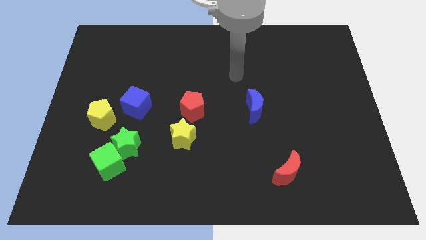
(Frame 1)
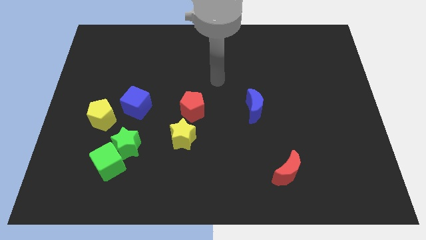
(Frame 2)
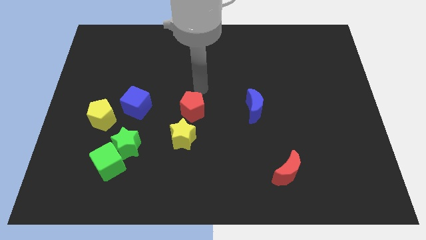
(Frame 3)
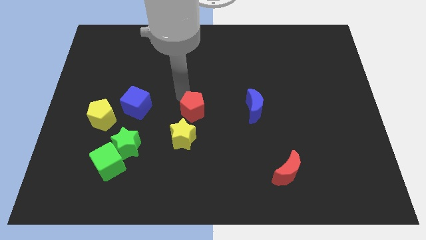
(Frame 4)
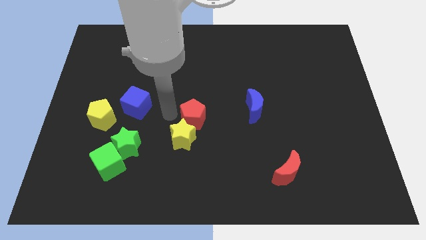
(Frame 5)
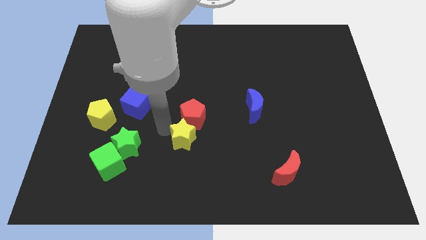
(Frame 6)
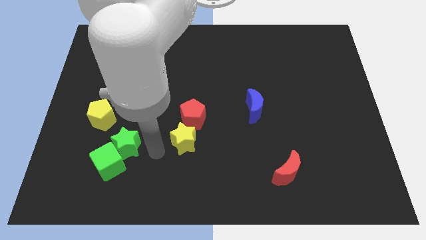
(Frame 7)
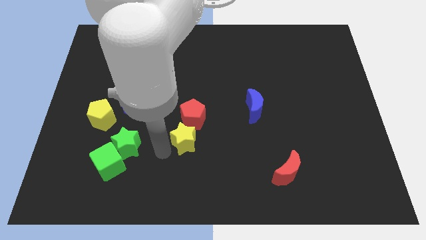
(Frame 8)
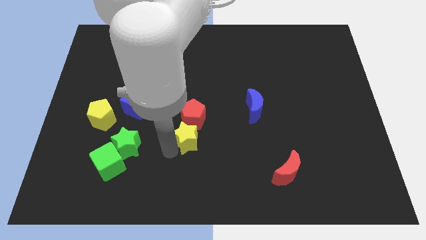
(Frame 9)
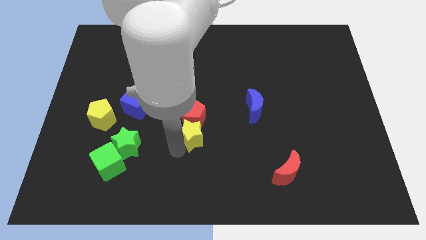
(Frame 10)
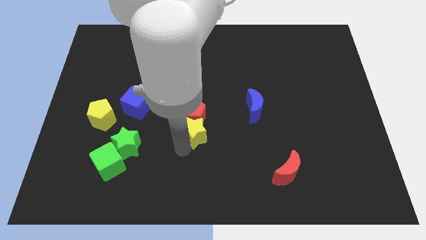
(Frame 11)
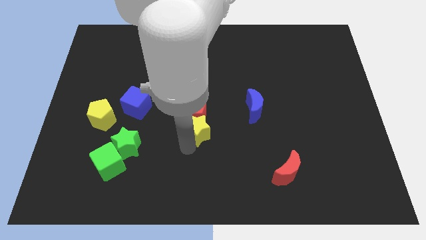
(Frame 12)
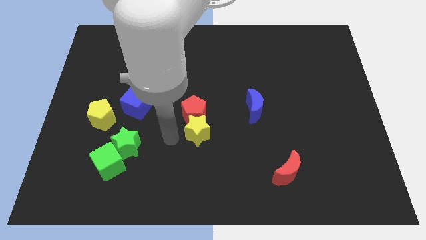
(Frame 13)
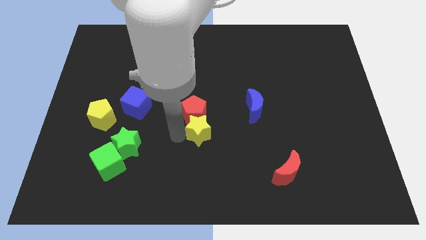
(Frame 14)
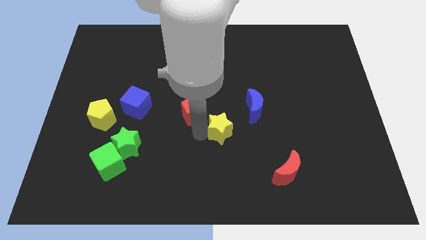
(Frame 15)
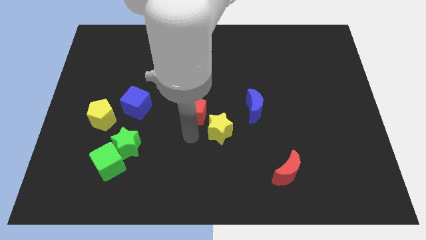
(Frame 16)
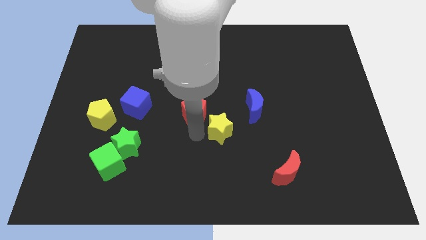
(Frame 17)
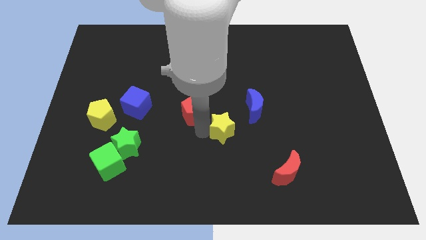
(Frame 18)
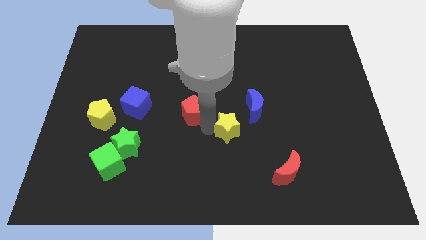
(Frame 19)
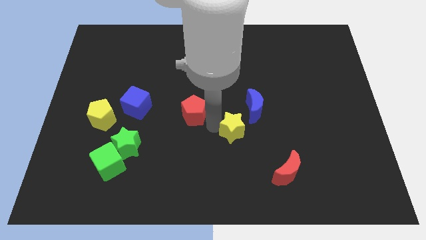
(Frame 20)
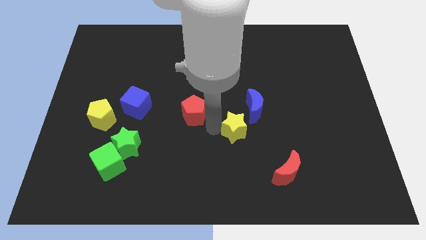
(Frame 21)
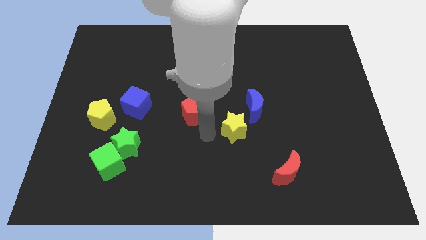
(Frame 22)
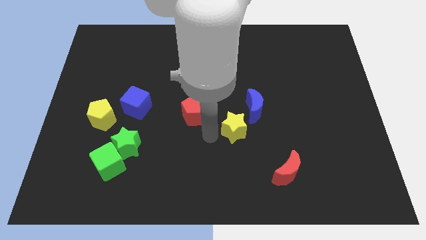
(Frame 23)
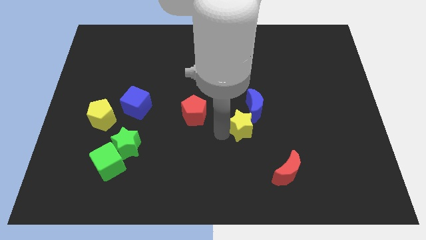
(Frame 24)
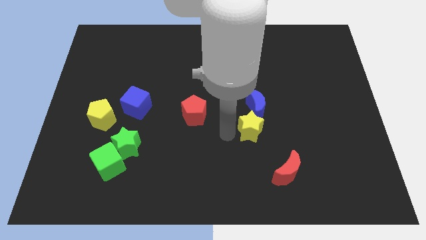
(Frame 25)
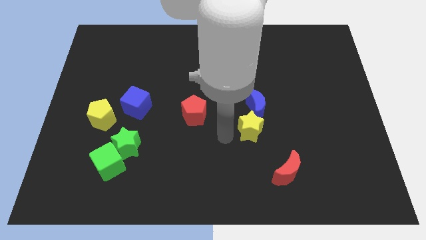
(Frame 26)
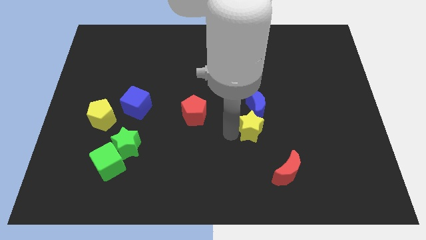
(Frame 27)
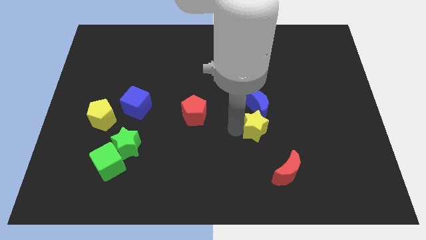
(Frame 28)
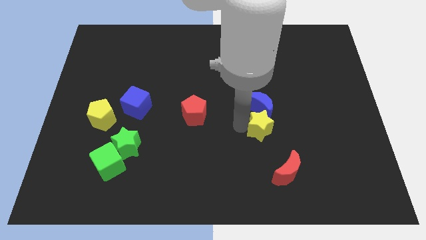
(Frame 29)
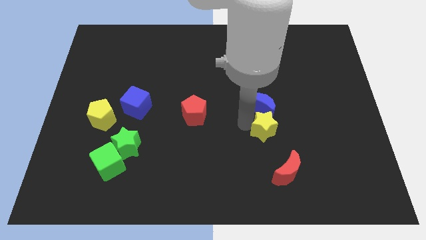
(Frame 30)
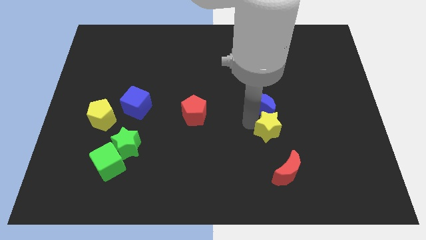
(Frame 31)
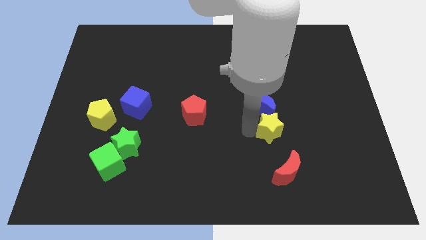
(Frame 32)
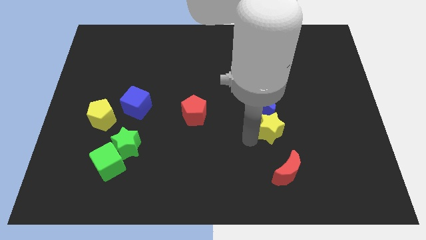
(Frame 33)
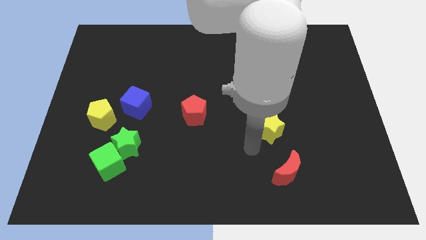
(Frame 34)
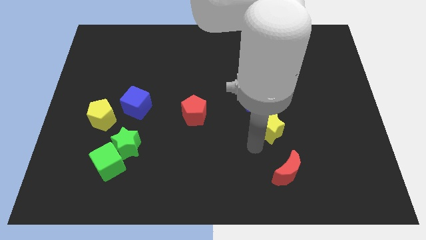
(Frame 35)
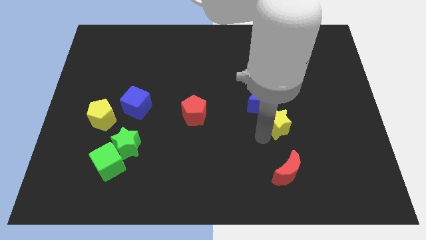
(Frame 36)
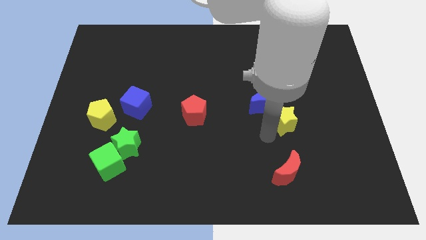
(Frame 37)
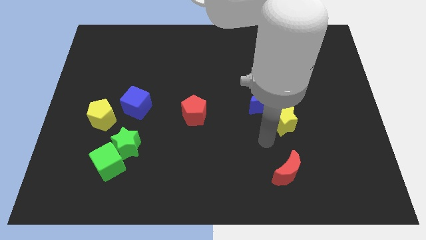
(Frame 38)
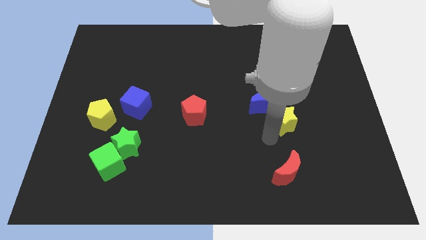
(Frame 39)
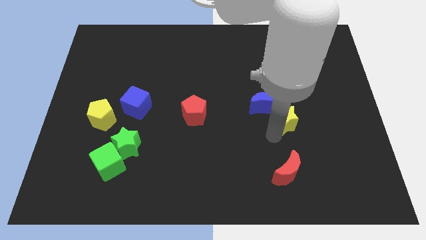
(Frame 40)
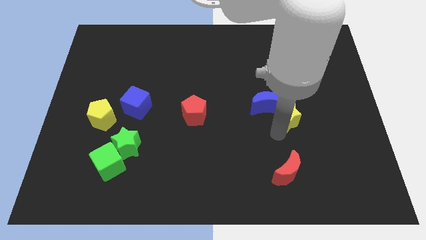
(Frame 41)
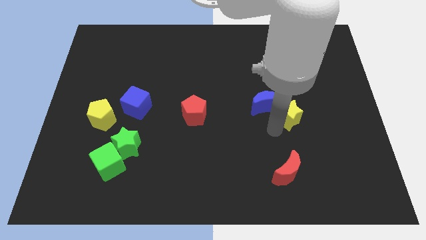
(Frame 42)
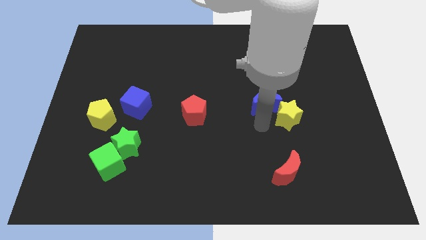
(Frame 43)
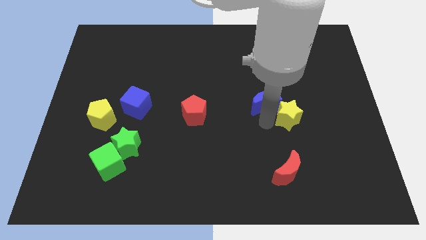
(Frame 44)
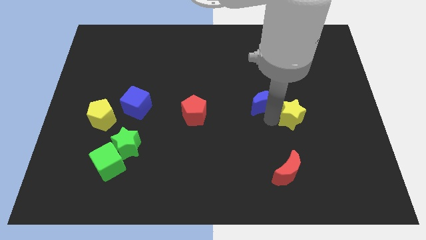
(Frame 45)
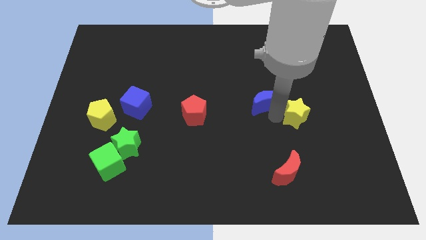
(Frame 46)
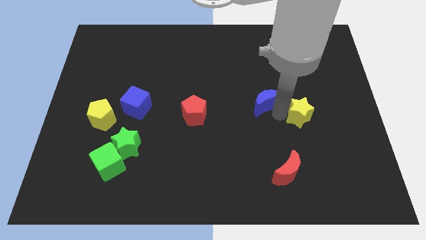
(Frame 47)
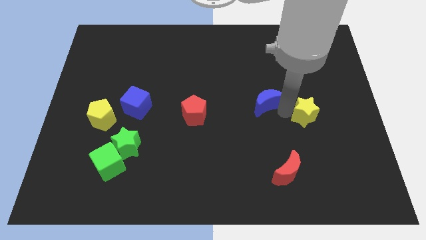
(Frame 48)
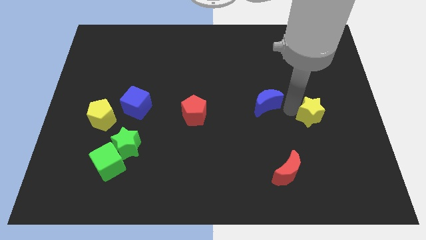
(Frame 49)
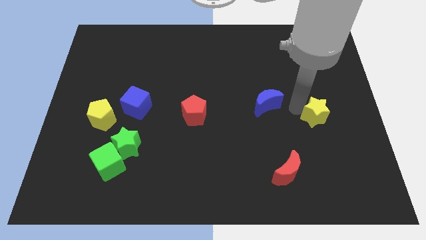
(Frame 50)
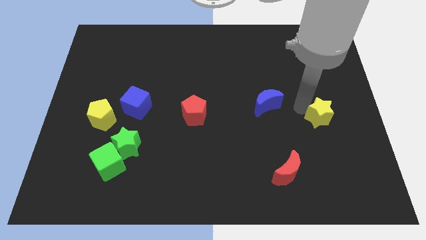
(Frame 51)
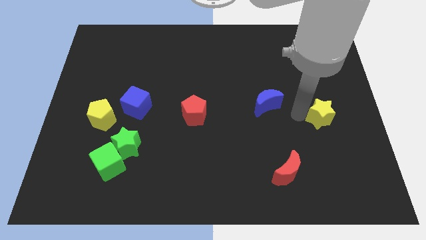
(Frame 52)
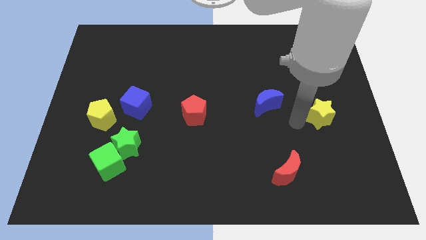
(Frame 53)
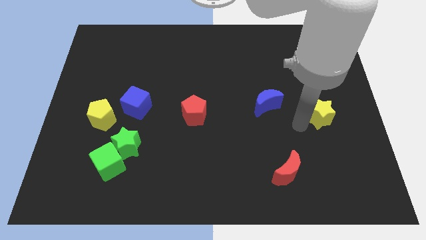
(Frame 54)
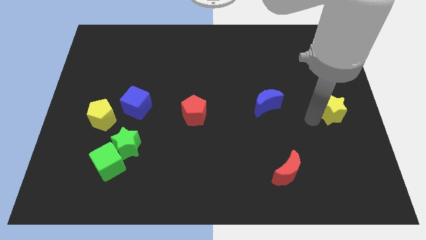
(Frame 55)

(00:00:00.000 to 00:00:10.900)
move the yellow star to the center right
